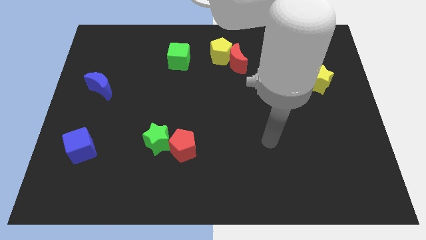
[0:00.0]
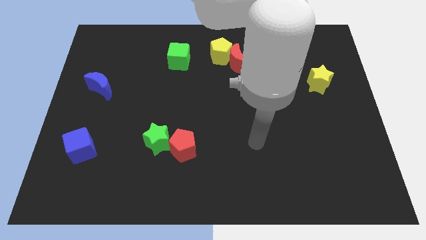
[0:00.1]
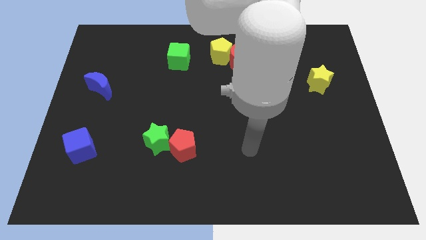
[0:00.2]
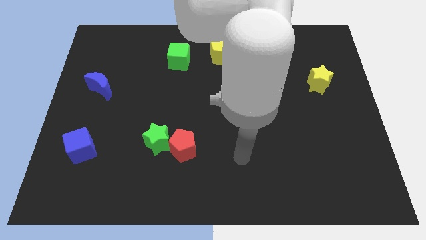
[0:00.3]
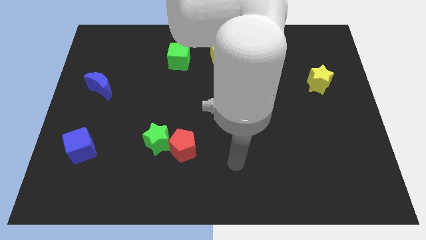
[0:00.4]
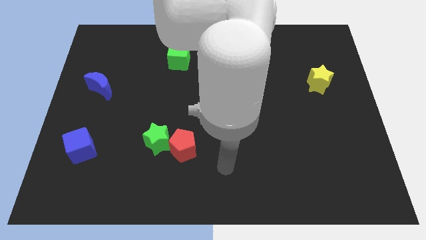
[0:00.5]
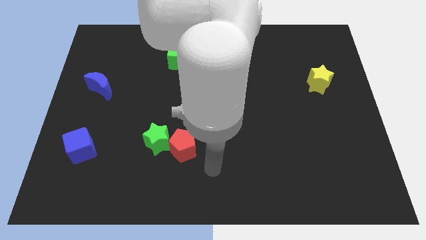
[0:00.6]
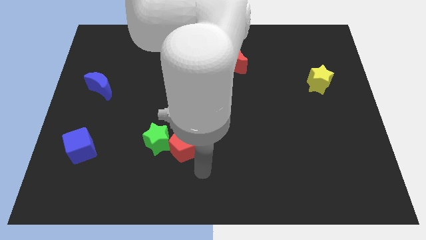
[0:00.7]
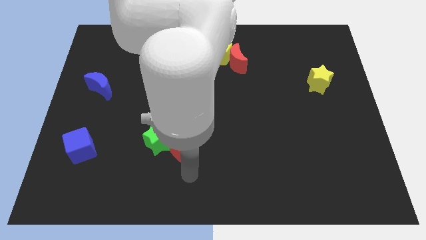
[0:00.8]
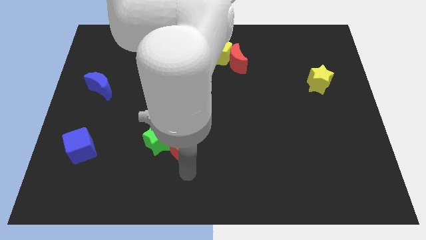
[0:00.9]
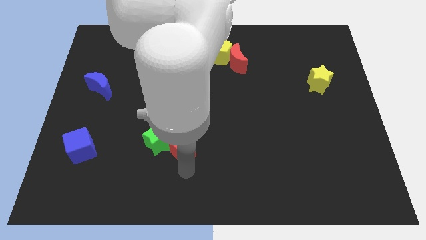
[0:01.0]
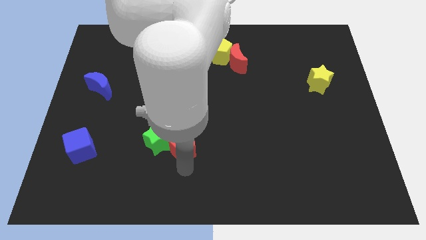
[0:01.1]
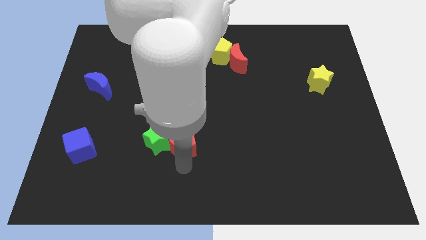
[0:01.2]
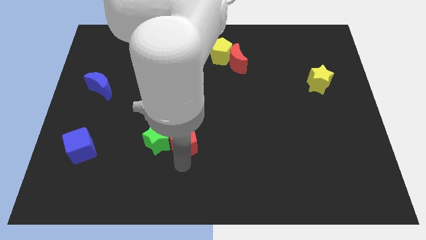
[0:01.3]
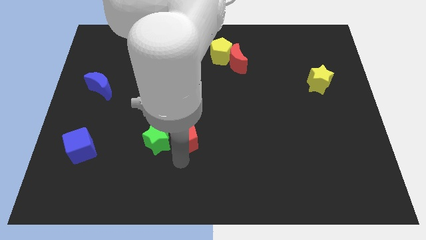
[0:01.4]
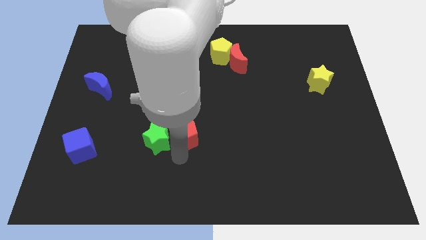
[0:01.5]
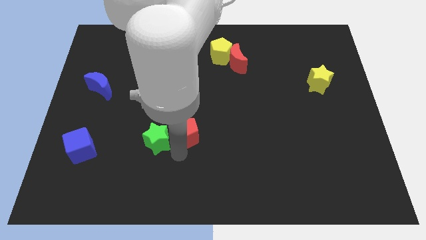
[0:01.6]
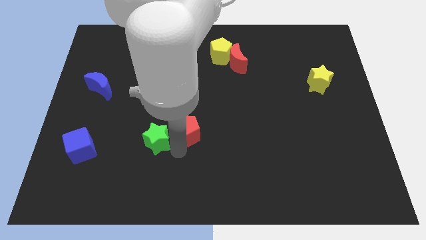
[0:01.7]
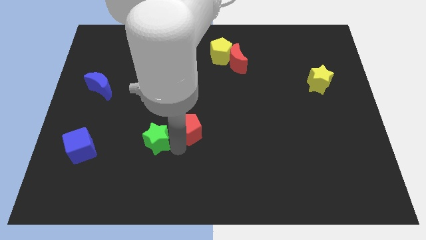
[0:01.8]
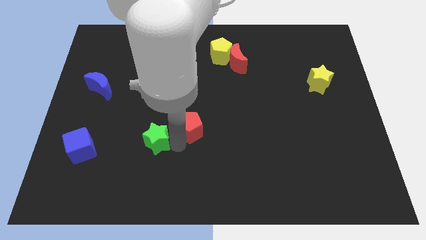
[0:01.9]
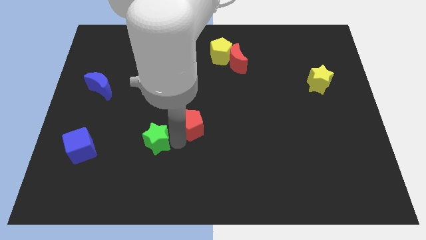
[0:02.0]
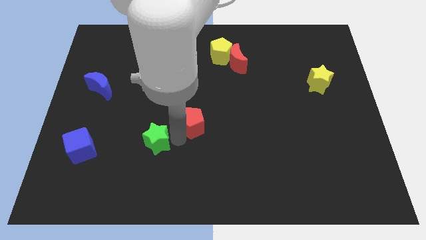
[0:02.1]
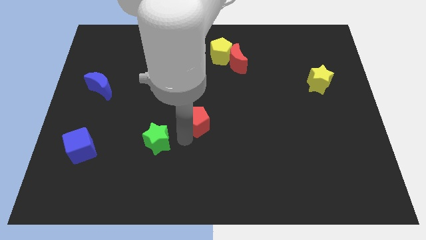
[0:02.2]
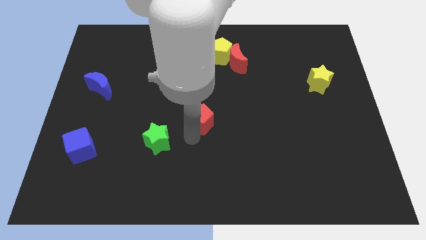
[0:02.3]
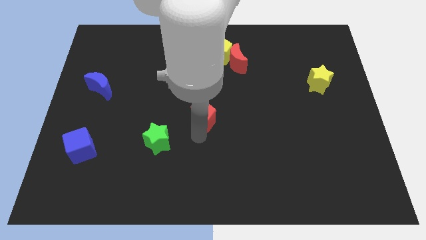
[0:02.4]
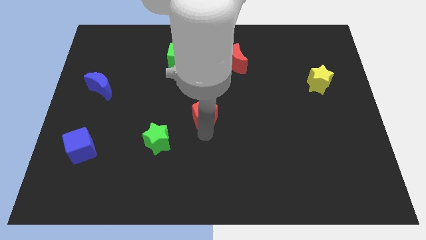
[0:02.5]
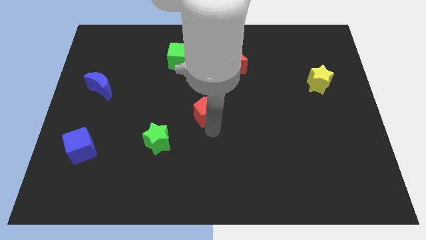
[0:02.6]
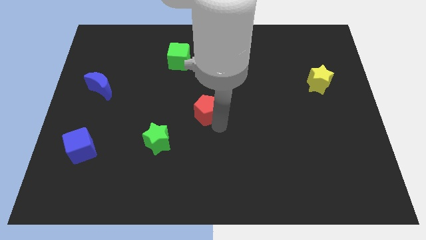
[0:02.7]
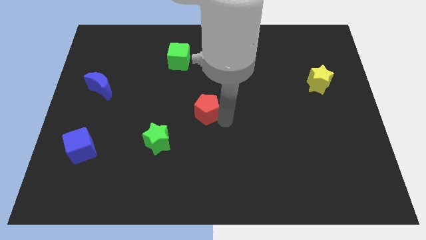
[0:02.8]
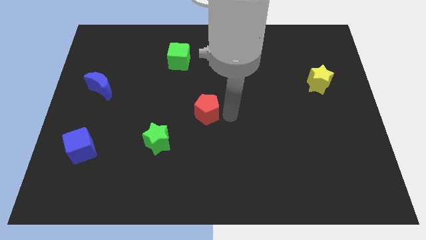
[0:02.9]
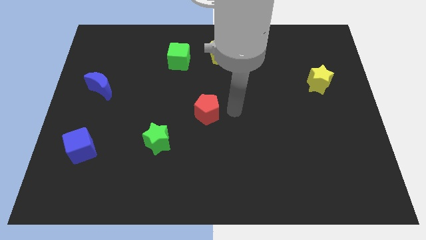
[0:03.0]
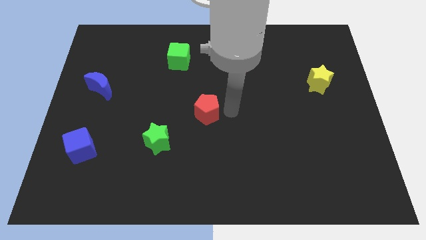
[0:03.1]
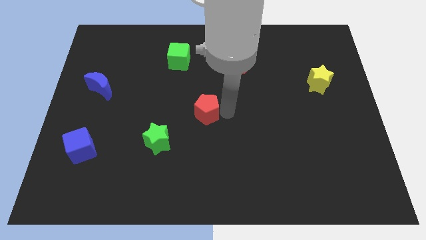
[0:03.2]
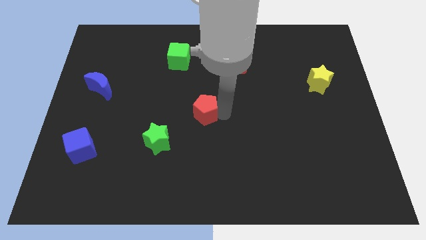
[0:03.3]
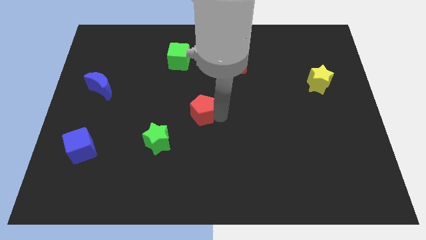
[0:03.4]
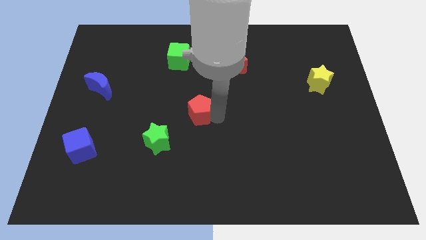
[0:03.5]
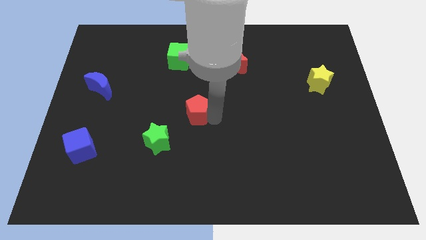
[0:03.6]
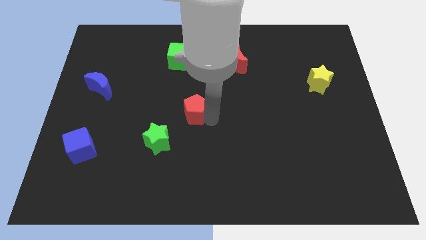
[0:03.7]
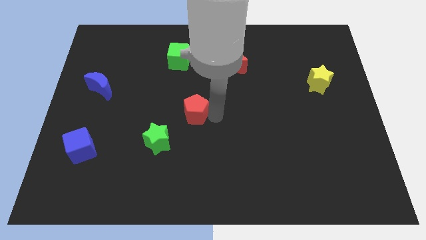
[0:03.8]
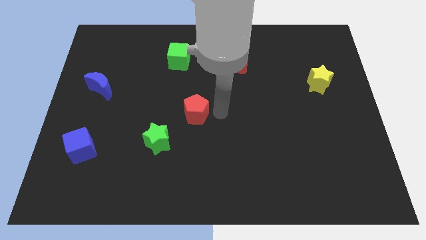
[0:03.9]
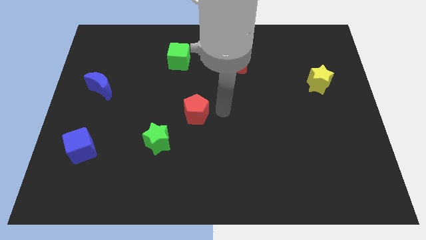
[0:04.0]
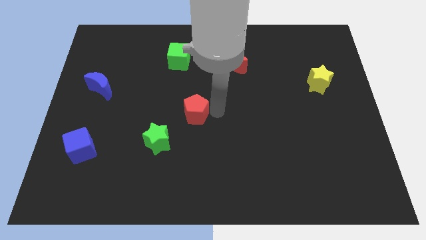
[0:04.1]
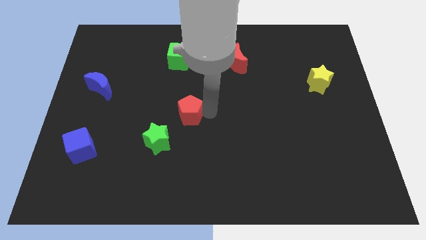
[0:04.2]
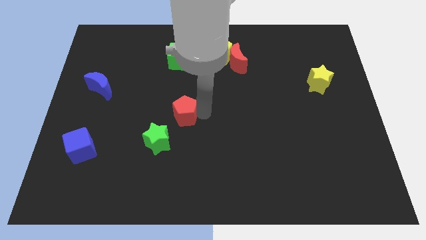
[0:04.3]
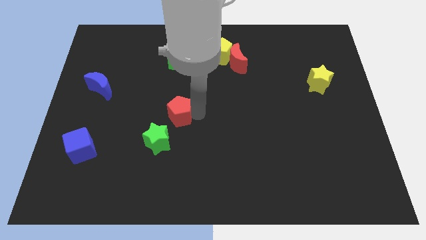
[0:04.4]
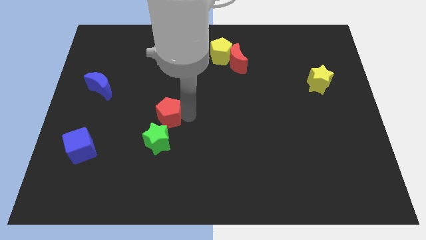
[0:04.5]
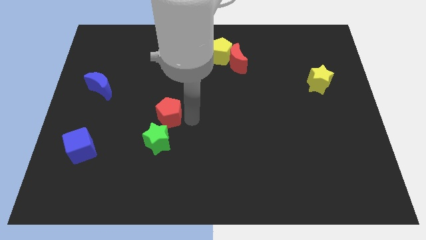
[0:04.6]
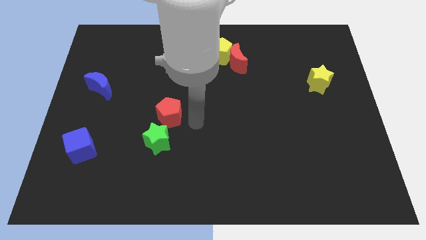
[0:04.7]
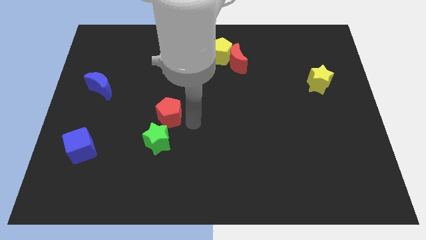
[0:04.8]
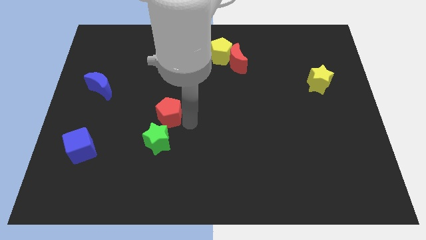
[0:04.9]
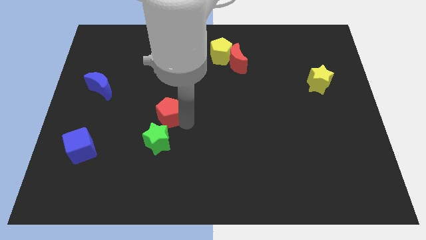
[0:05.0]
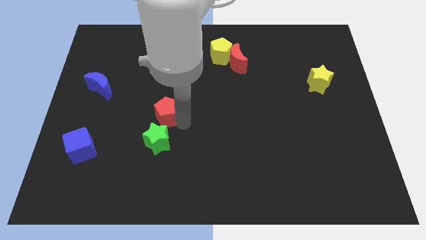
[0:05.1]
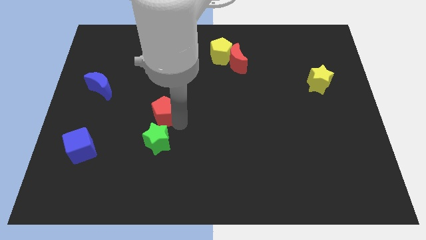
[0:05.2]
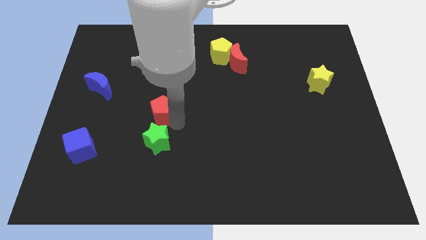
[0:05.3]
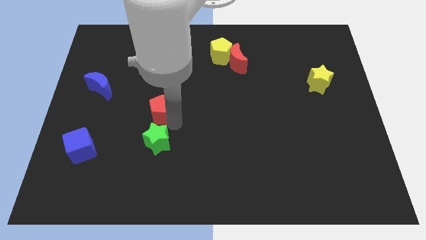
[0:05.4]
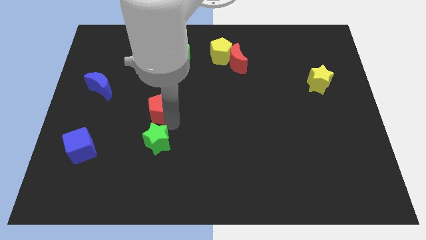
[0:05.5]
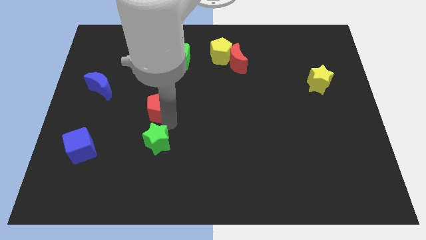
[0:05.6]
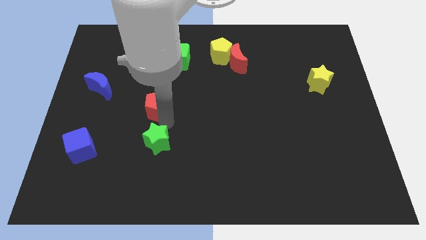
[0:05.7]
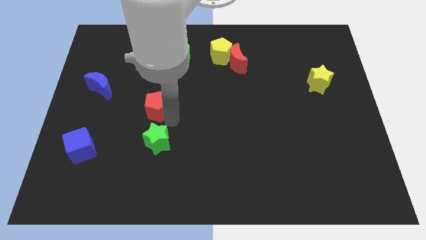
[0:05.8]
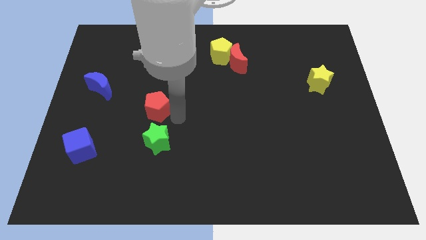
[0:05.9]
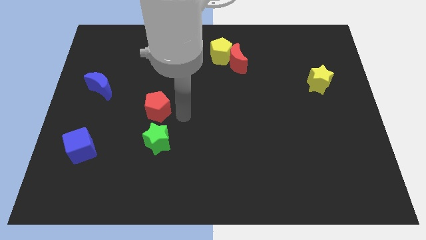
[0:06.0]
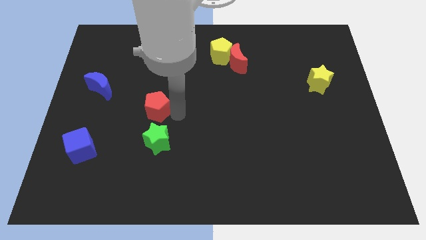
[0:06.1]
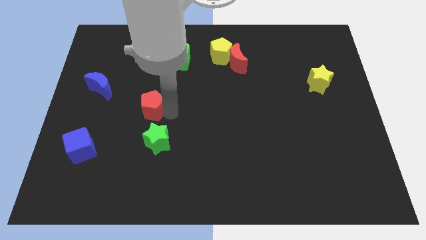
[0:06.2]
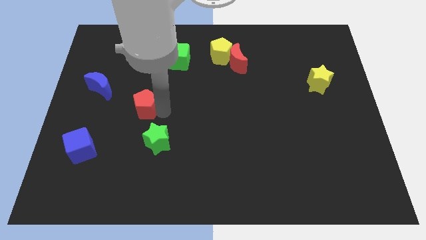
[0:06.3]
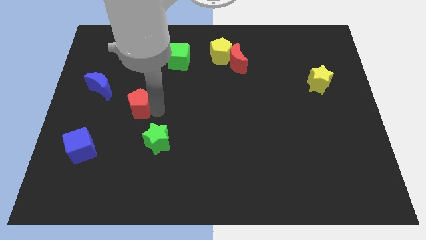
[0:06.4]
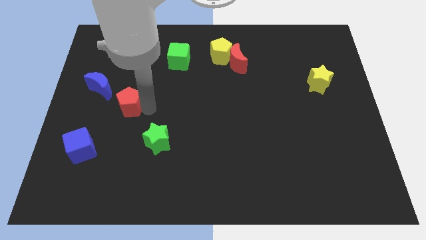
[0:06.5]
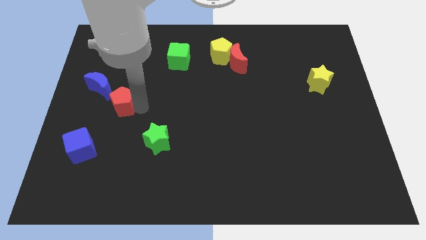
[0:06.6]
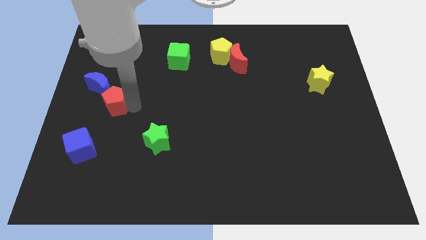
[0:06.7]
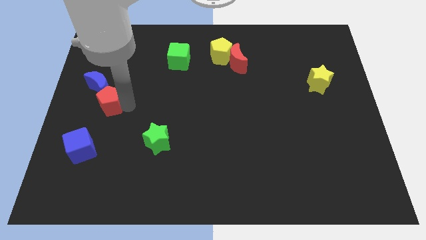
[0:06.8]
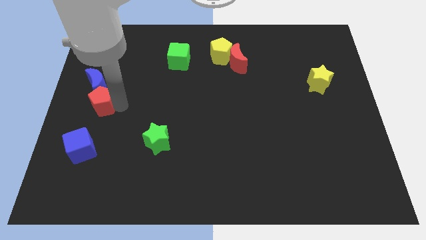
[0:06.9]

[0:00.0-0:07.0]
slide the red pentagon to the center left
